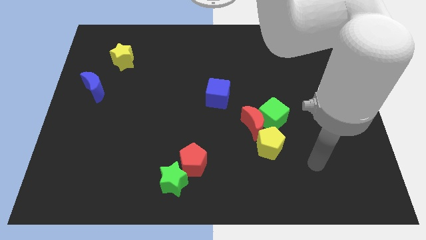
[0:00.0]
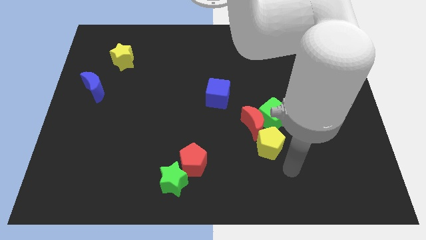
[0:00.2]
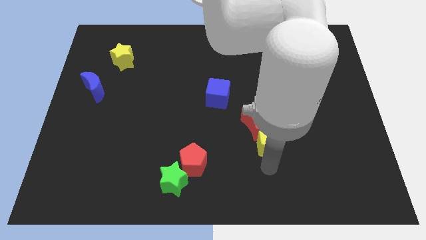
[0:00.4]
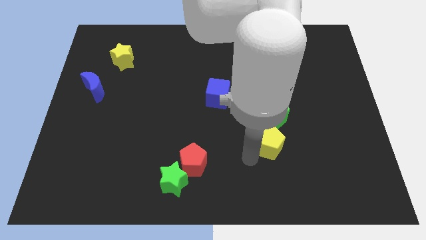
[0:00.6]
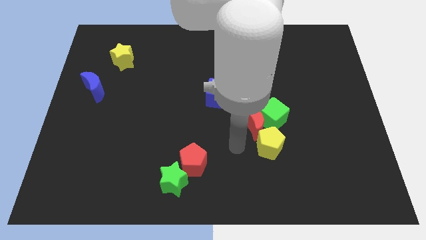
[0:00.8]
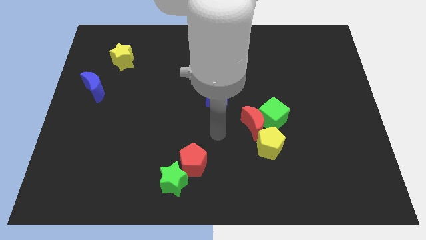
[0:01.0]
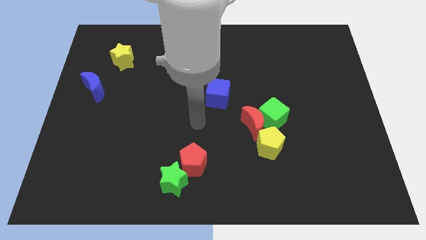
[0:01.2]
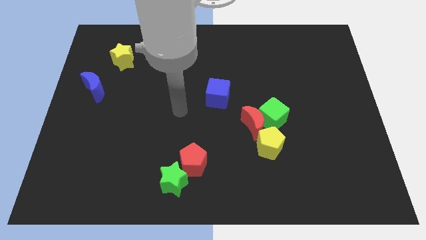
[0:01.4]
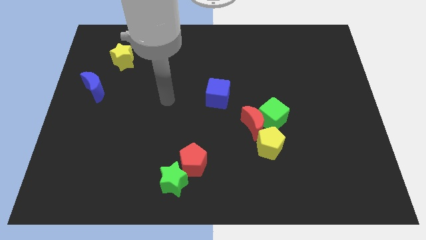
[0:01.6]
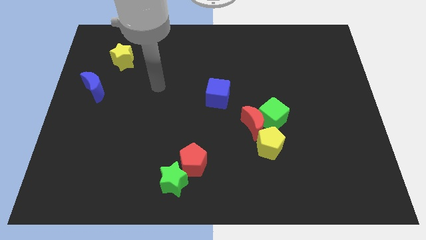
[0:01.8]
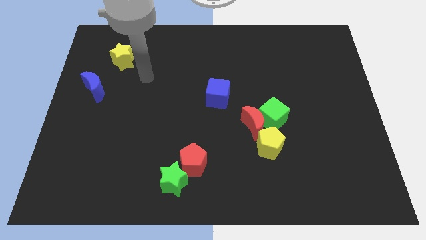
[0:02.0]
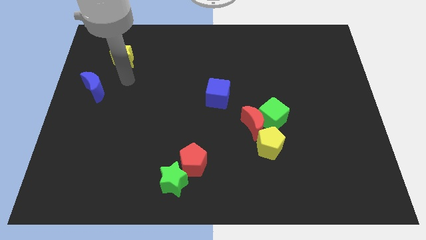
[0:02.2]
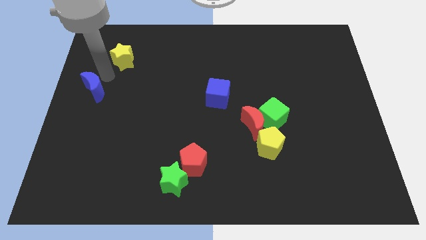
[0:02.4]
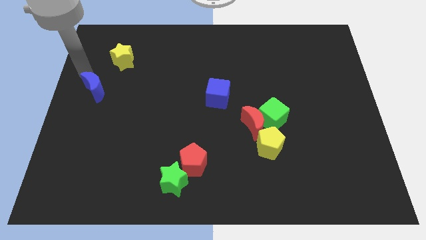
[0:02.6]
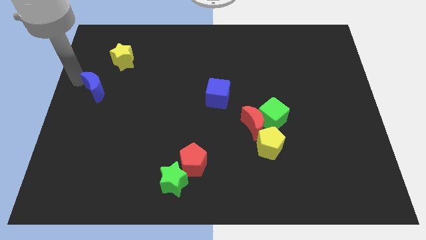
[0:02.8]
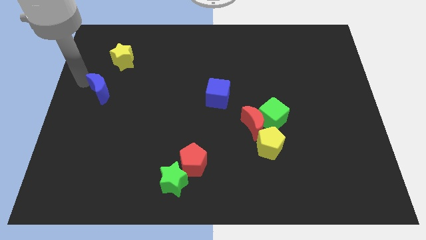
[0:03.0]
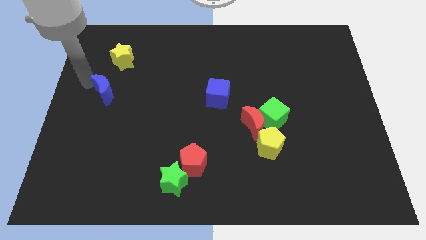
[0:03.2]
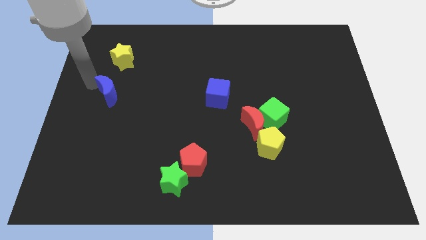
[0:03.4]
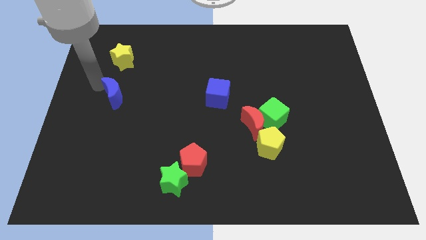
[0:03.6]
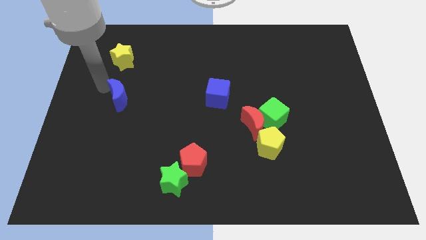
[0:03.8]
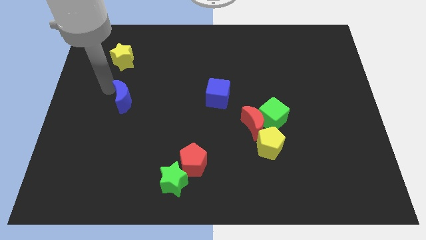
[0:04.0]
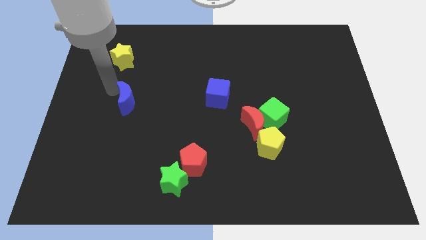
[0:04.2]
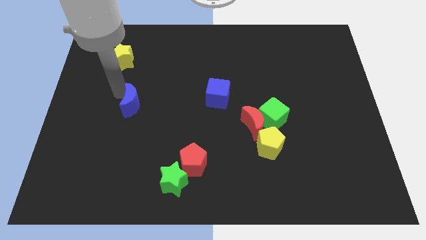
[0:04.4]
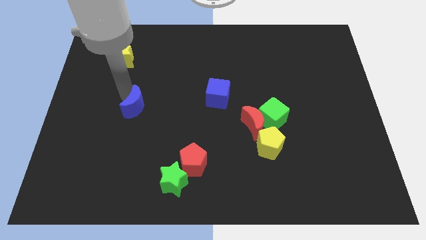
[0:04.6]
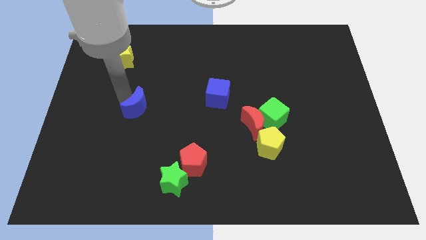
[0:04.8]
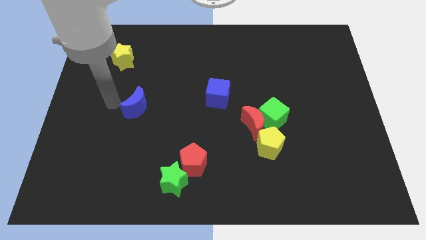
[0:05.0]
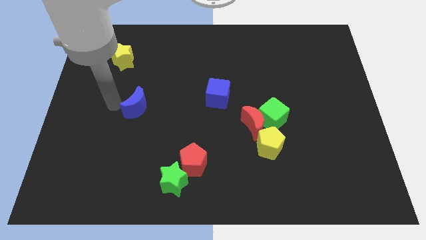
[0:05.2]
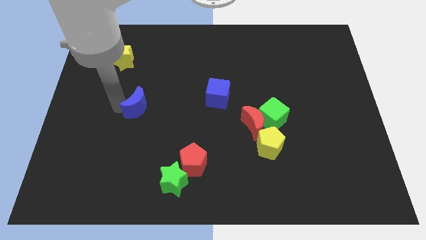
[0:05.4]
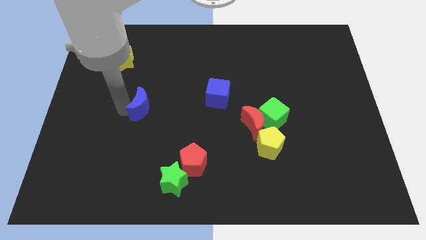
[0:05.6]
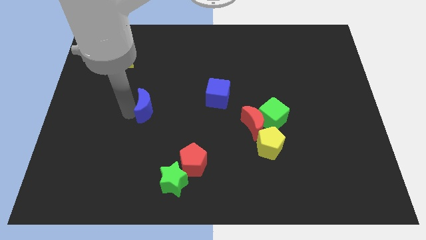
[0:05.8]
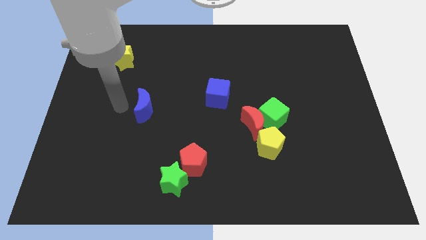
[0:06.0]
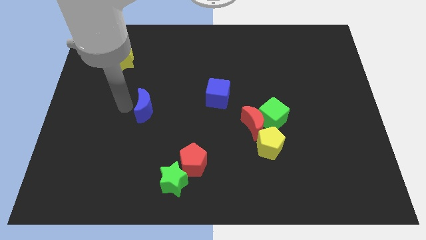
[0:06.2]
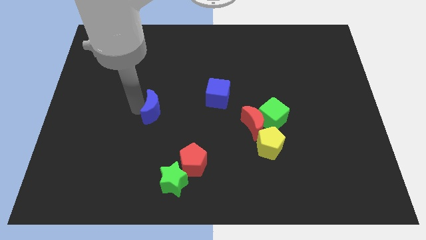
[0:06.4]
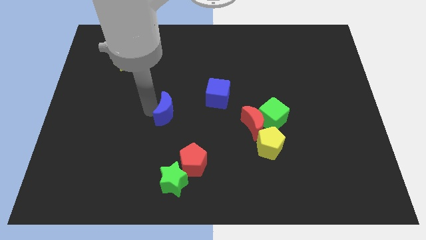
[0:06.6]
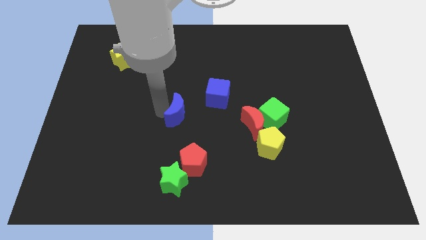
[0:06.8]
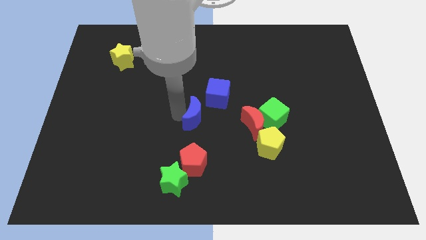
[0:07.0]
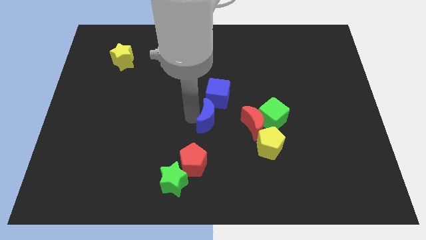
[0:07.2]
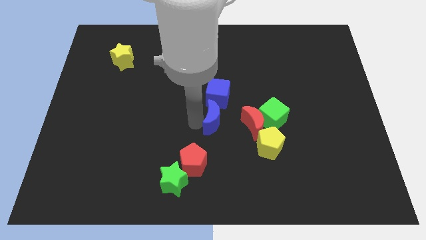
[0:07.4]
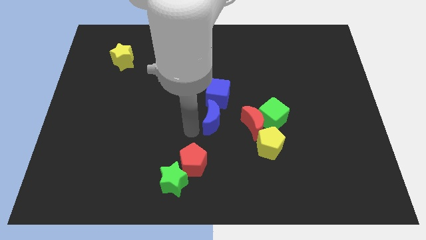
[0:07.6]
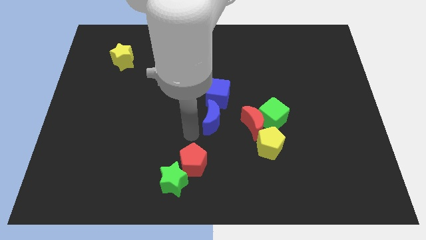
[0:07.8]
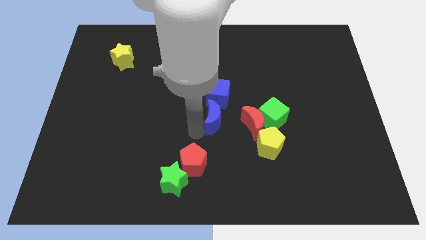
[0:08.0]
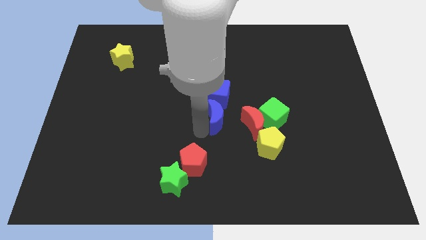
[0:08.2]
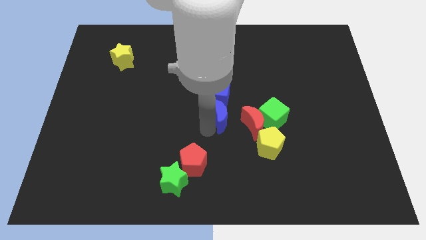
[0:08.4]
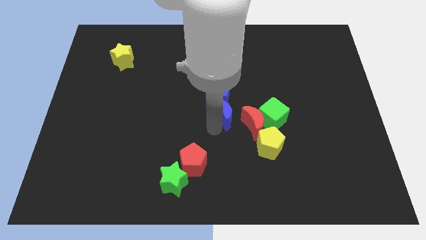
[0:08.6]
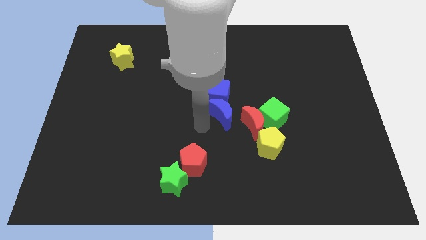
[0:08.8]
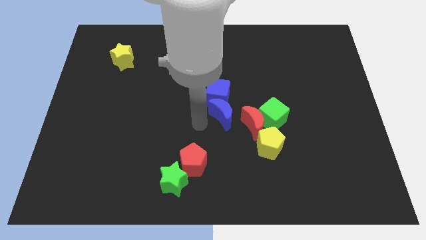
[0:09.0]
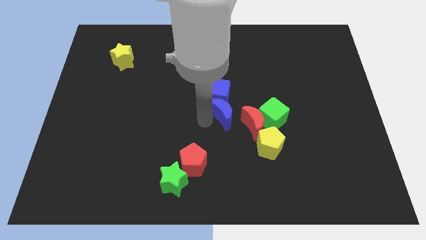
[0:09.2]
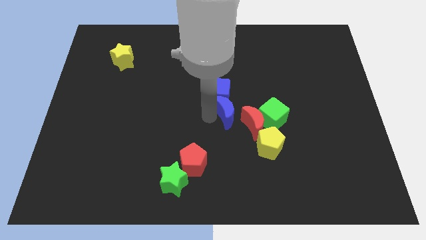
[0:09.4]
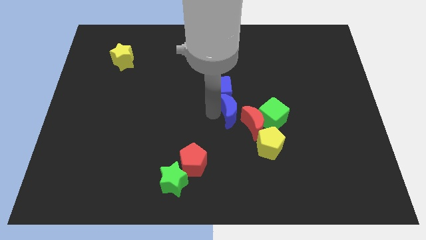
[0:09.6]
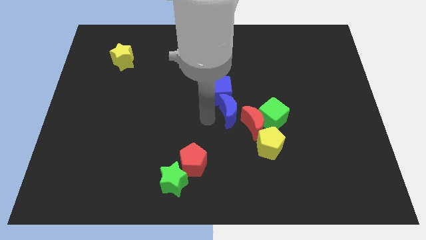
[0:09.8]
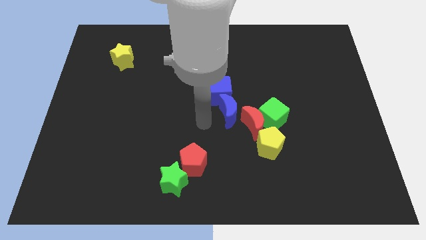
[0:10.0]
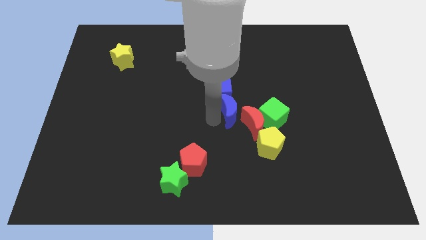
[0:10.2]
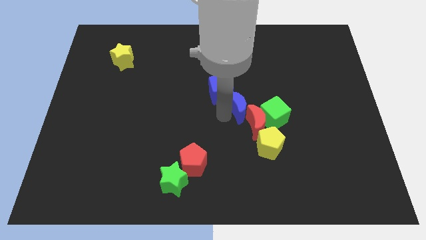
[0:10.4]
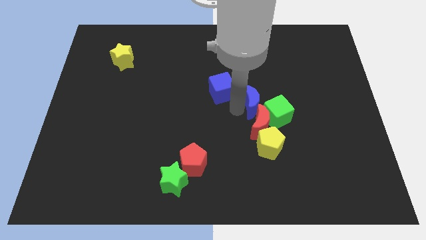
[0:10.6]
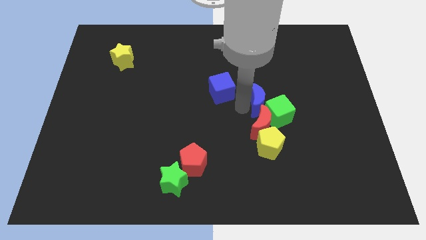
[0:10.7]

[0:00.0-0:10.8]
move the blue moon towards the green cube

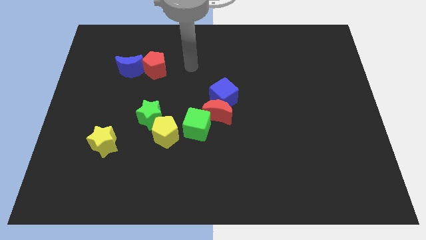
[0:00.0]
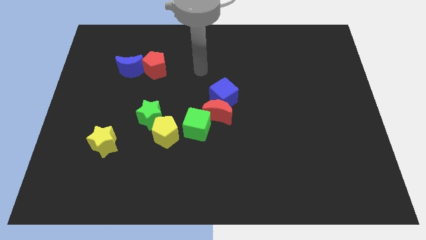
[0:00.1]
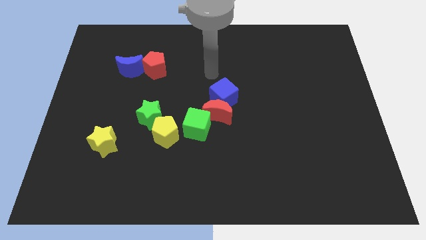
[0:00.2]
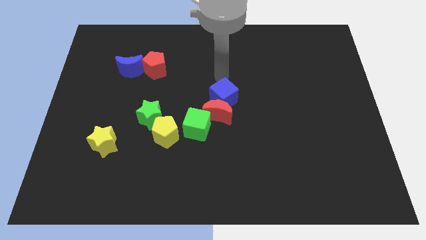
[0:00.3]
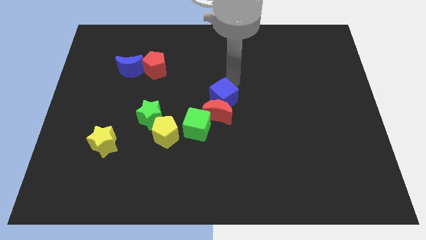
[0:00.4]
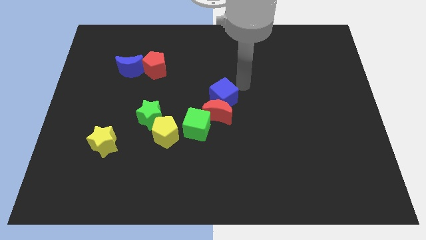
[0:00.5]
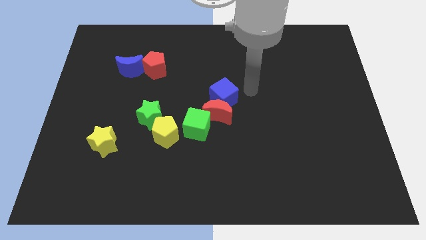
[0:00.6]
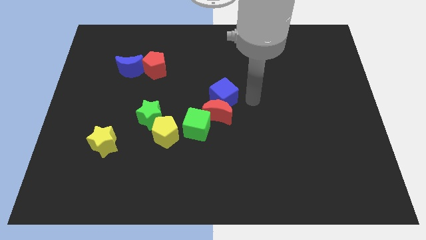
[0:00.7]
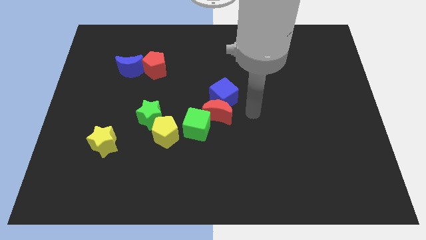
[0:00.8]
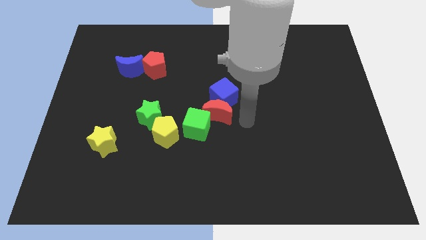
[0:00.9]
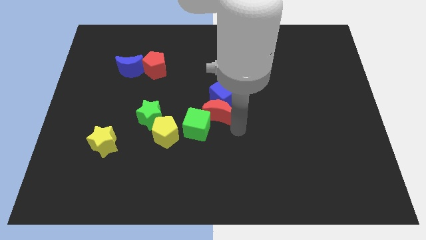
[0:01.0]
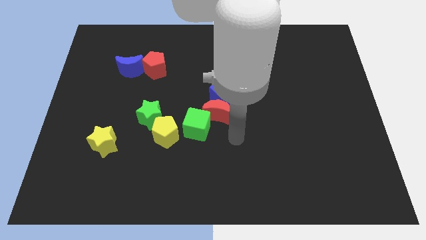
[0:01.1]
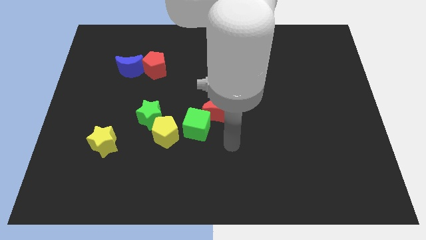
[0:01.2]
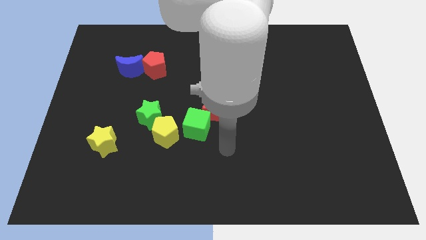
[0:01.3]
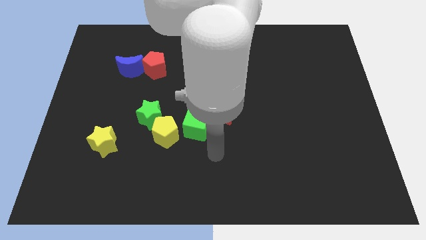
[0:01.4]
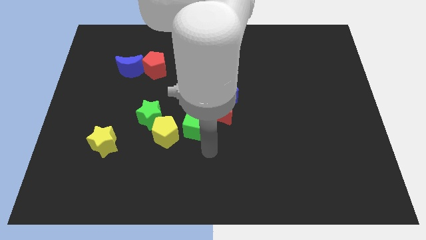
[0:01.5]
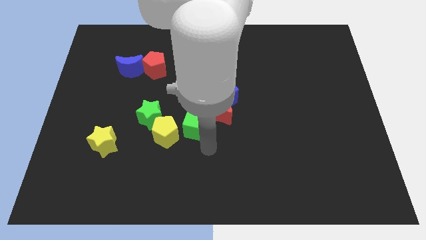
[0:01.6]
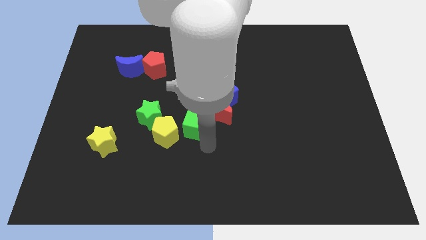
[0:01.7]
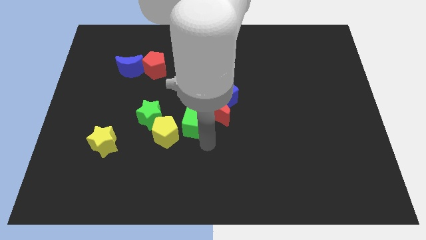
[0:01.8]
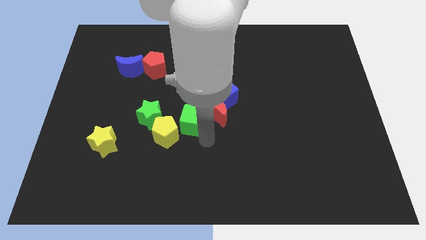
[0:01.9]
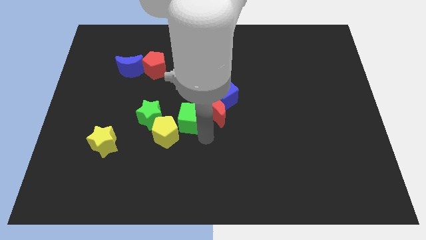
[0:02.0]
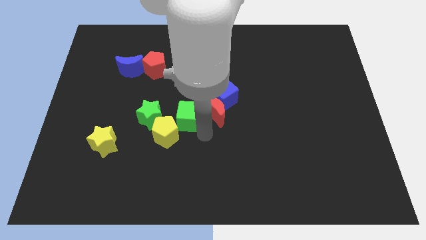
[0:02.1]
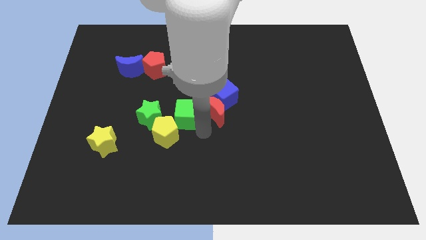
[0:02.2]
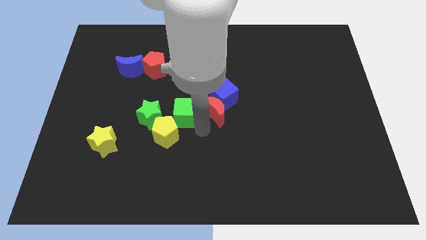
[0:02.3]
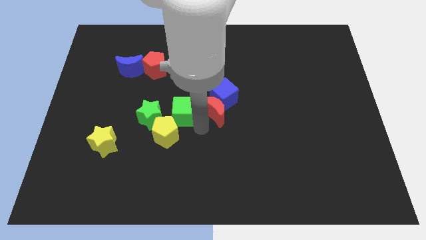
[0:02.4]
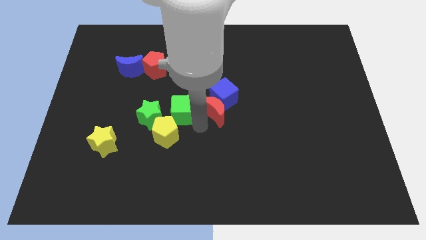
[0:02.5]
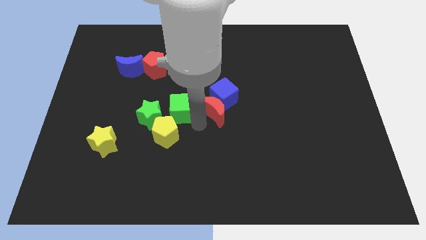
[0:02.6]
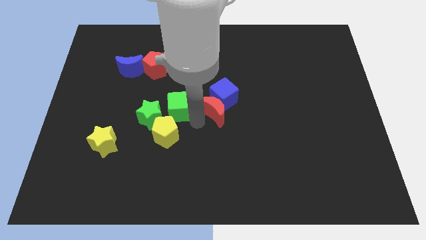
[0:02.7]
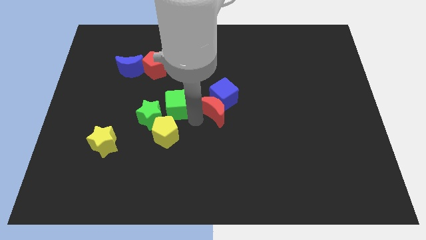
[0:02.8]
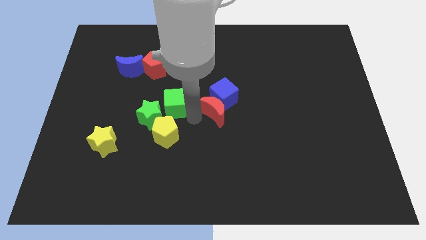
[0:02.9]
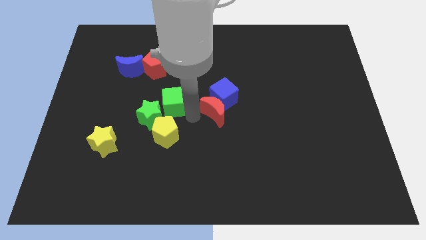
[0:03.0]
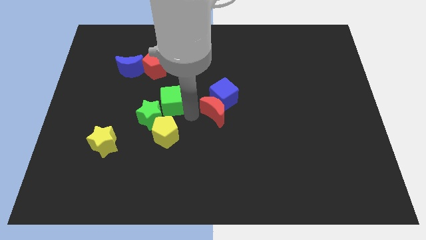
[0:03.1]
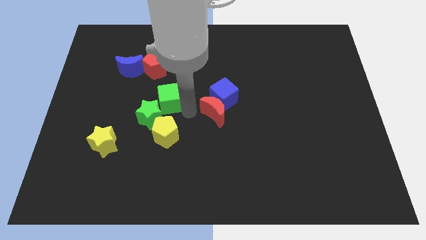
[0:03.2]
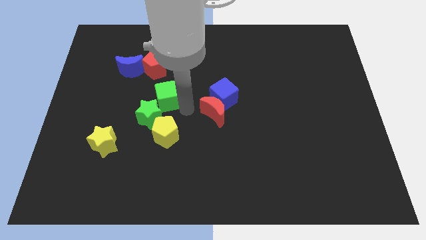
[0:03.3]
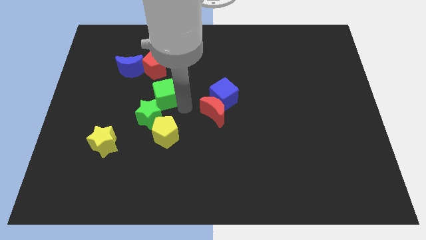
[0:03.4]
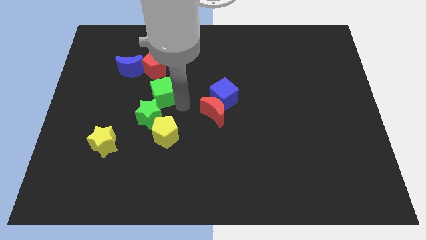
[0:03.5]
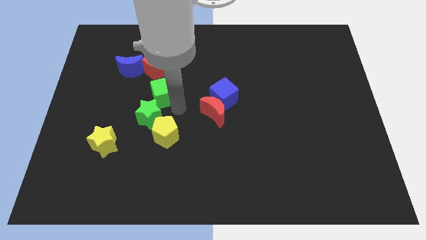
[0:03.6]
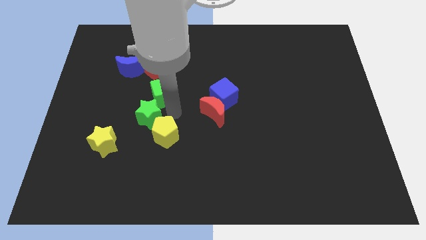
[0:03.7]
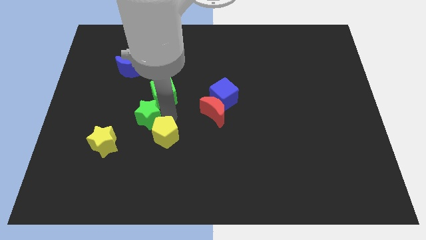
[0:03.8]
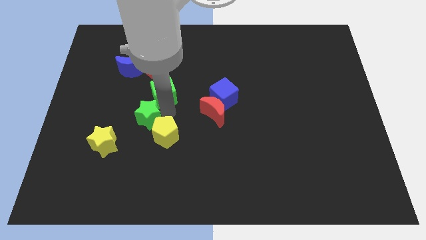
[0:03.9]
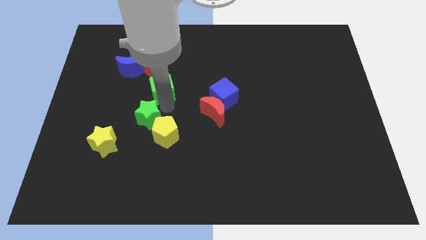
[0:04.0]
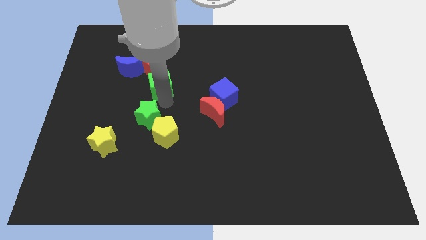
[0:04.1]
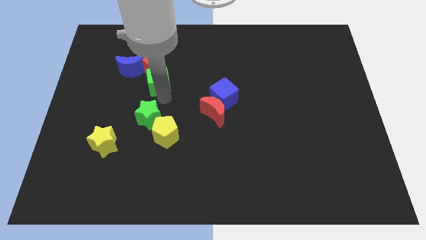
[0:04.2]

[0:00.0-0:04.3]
move the green cube next to the red pentagon
